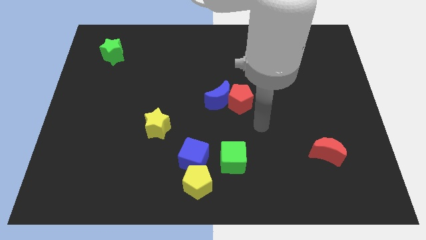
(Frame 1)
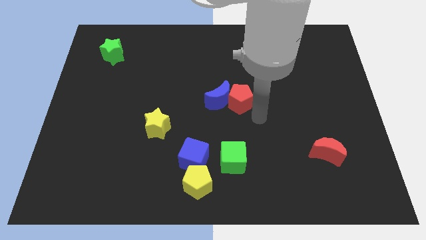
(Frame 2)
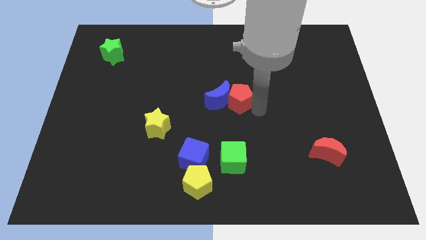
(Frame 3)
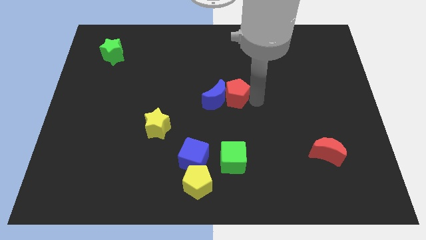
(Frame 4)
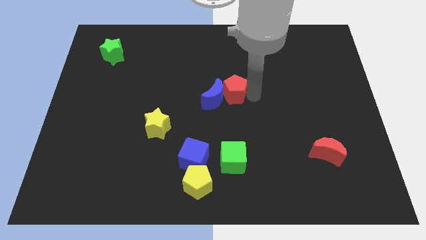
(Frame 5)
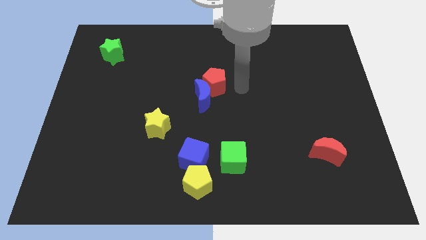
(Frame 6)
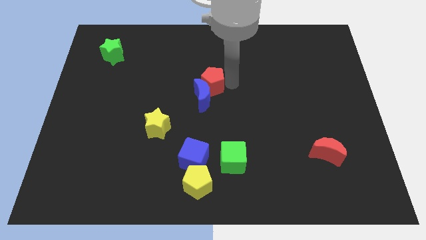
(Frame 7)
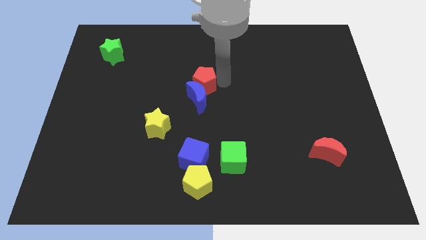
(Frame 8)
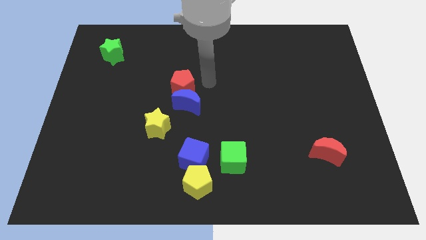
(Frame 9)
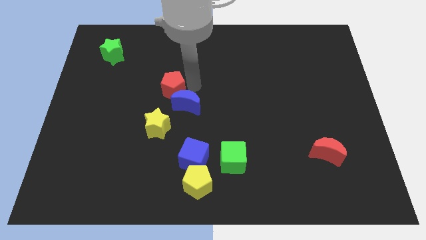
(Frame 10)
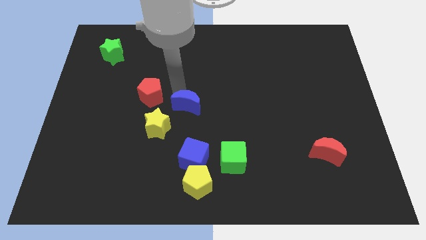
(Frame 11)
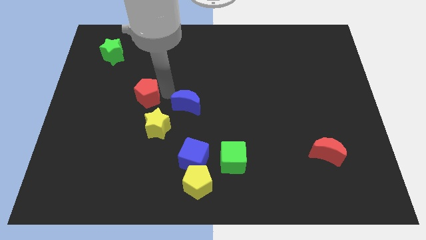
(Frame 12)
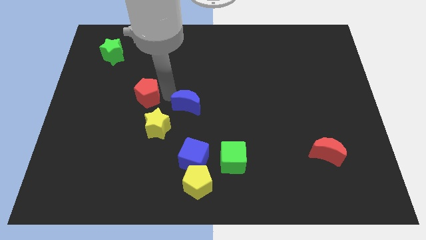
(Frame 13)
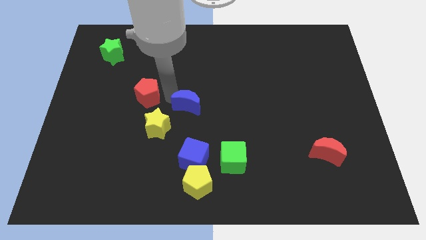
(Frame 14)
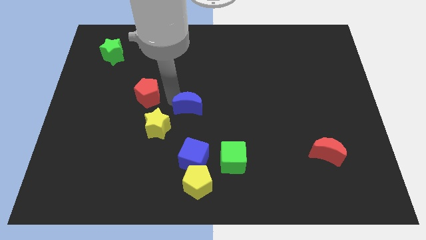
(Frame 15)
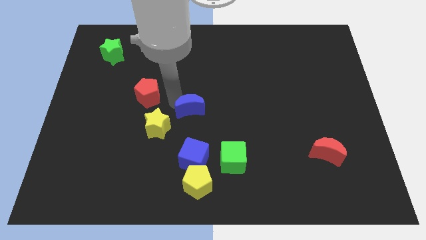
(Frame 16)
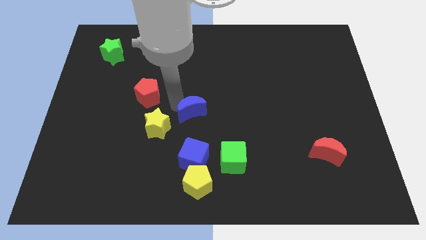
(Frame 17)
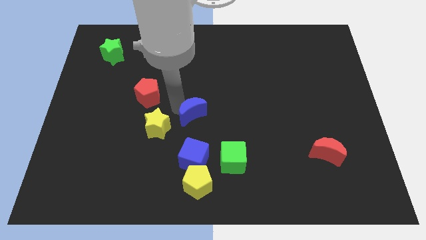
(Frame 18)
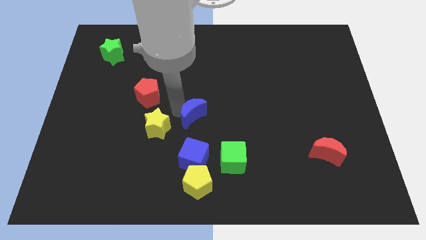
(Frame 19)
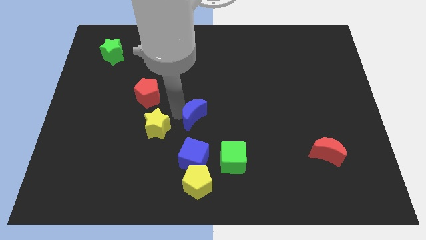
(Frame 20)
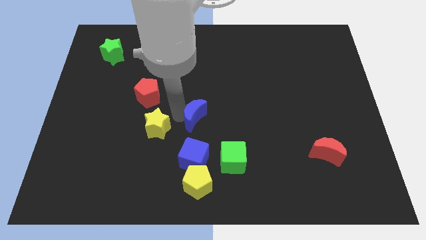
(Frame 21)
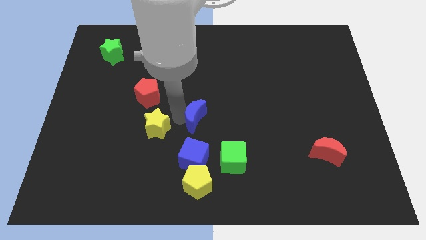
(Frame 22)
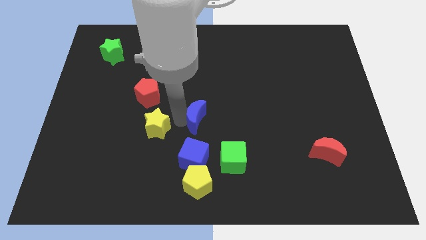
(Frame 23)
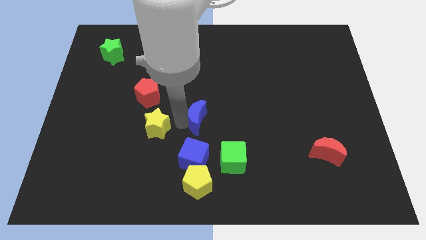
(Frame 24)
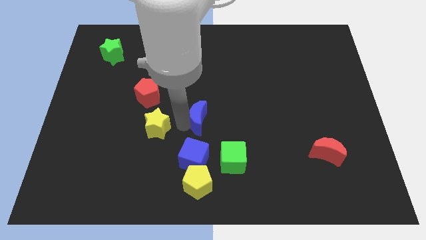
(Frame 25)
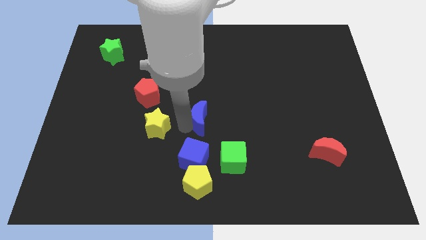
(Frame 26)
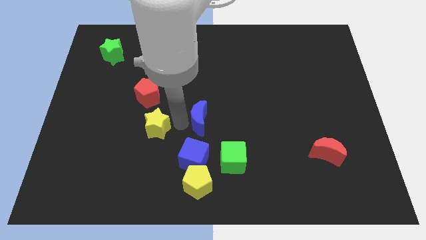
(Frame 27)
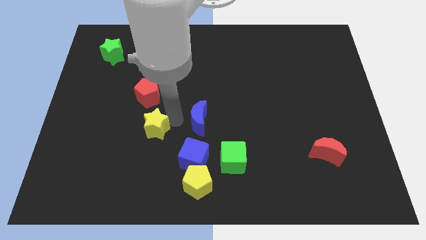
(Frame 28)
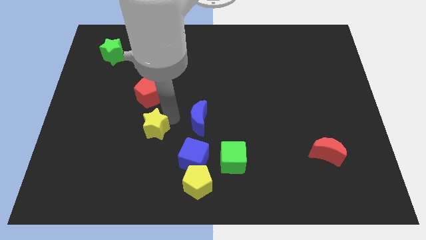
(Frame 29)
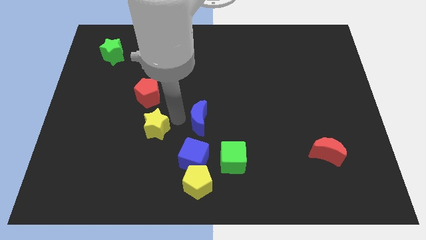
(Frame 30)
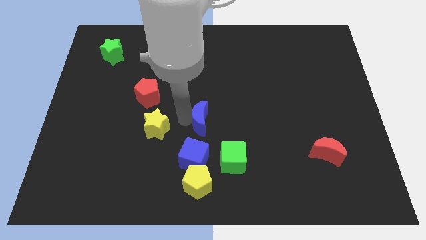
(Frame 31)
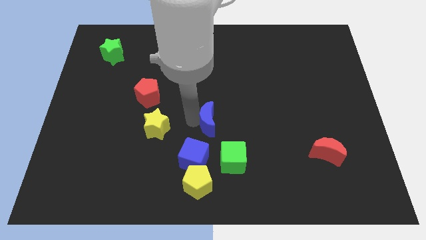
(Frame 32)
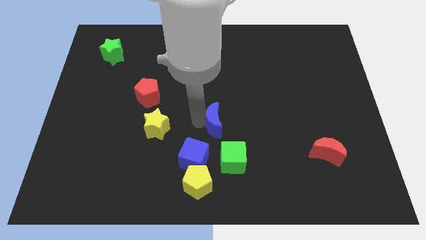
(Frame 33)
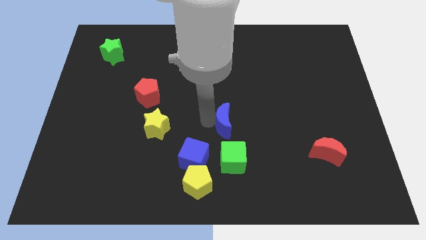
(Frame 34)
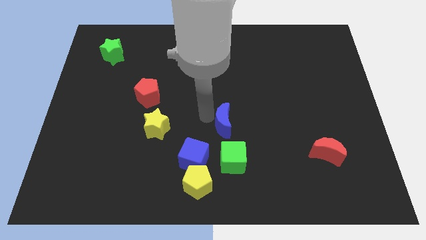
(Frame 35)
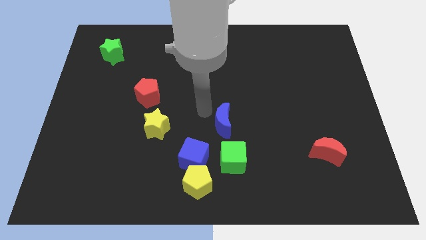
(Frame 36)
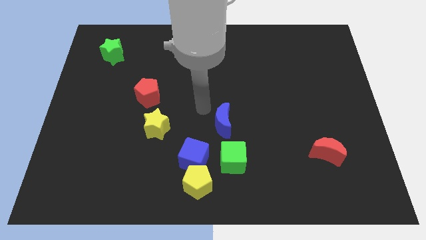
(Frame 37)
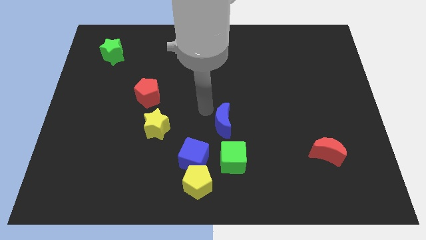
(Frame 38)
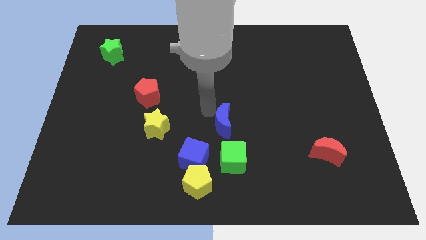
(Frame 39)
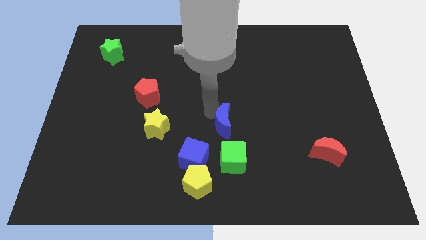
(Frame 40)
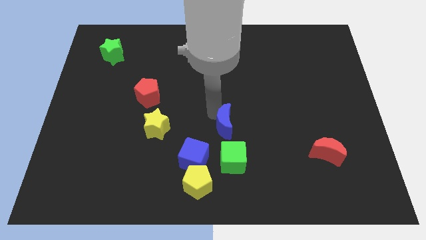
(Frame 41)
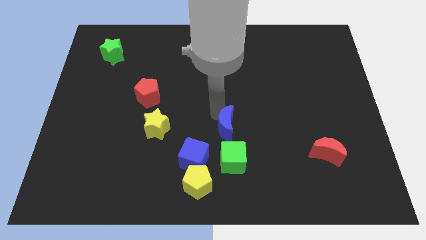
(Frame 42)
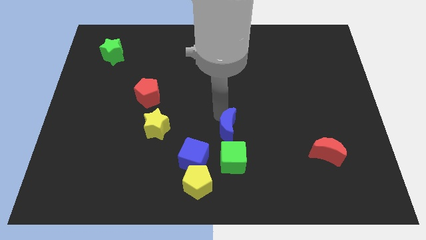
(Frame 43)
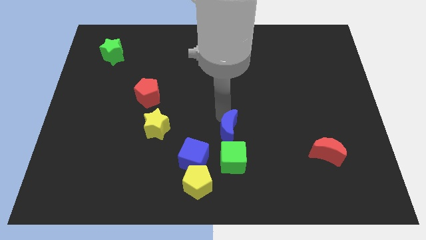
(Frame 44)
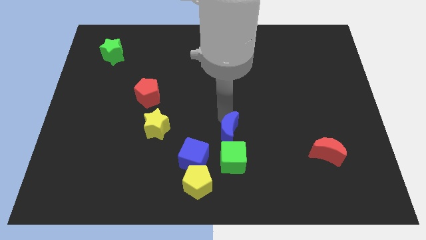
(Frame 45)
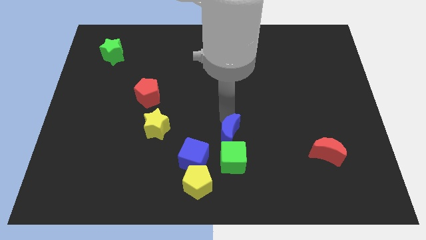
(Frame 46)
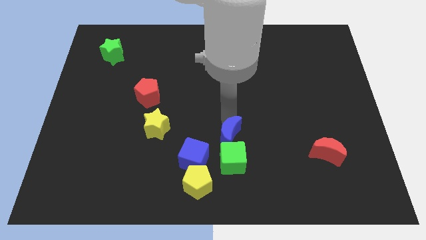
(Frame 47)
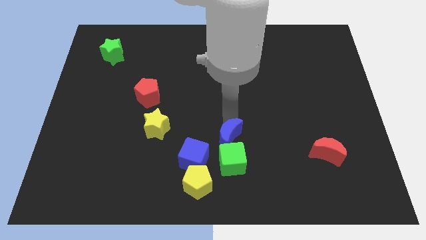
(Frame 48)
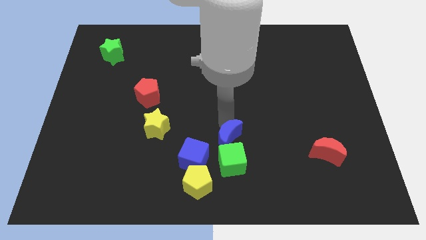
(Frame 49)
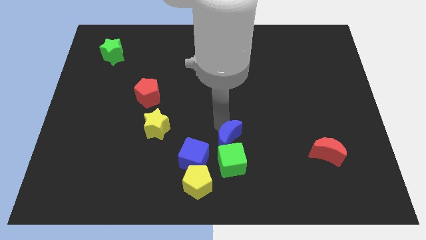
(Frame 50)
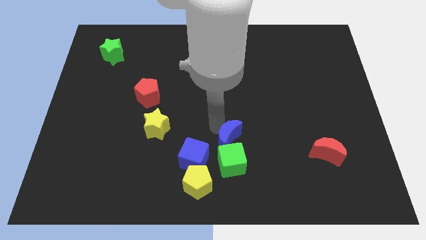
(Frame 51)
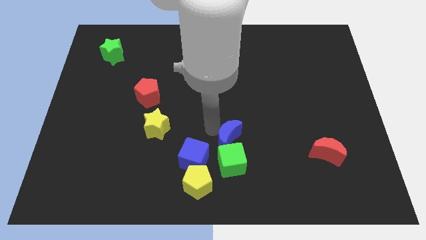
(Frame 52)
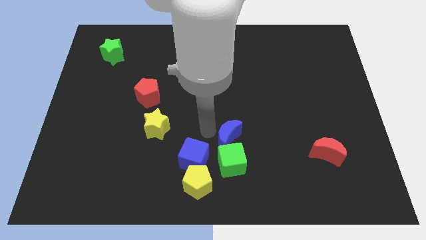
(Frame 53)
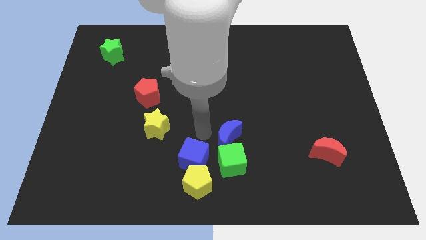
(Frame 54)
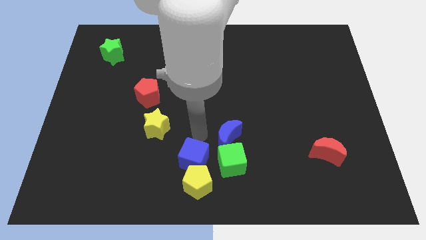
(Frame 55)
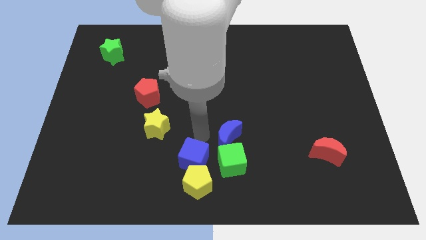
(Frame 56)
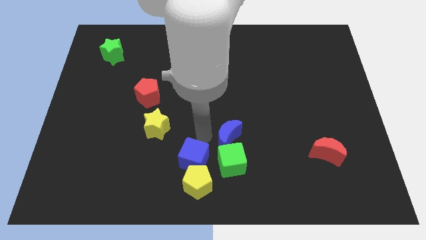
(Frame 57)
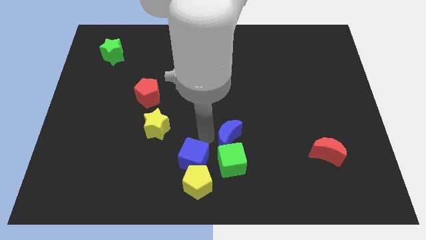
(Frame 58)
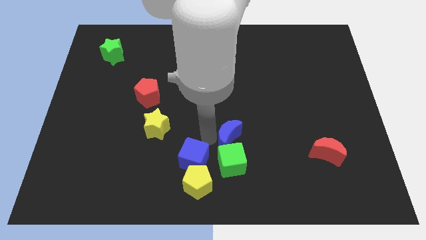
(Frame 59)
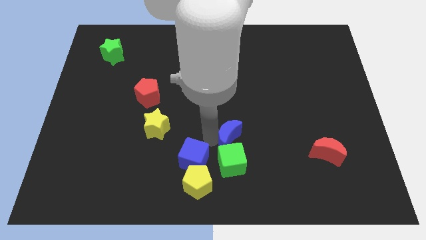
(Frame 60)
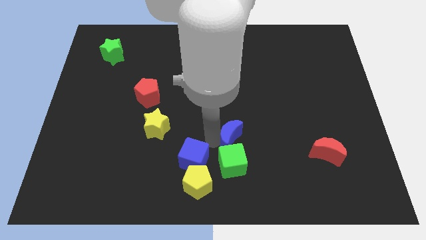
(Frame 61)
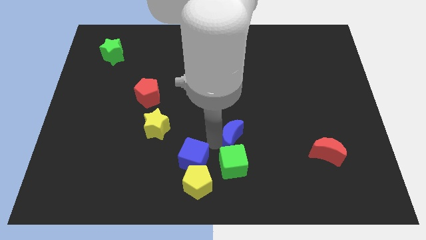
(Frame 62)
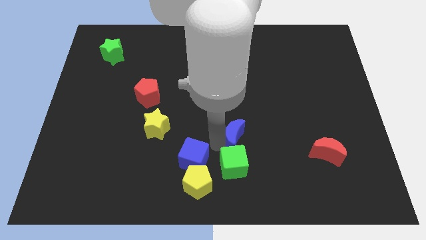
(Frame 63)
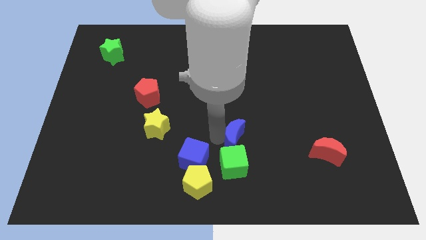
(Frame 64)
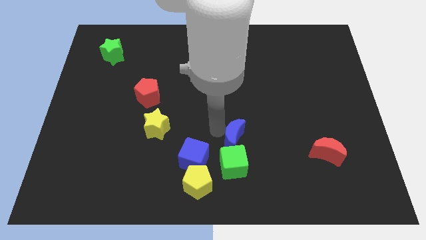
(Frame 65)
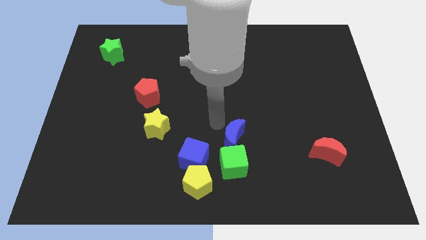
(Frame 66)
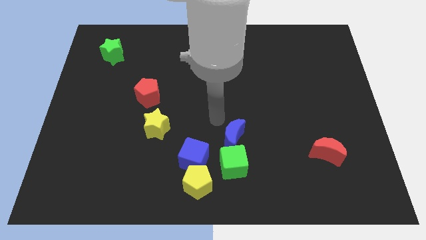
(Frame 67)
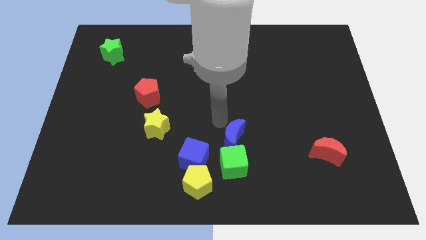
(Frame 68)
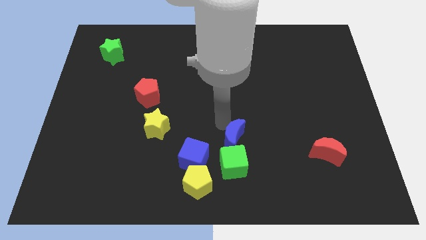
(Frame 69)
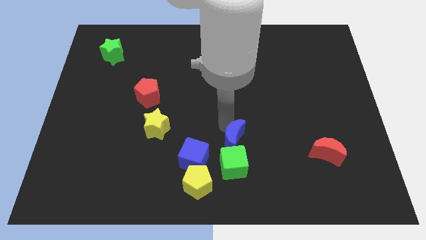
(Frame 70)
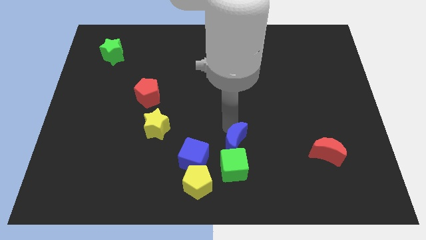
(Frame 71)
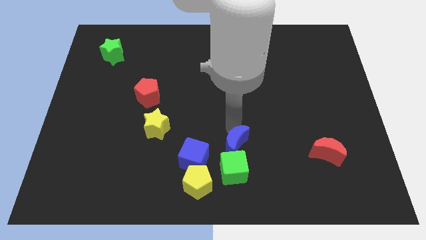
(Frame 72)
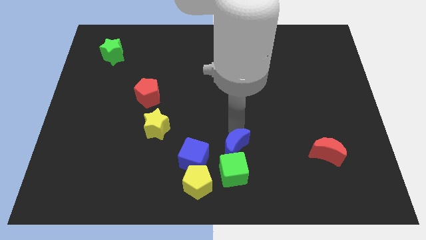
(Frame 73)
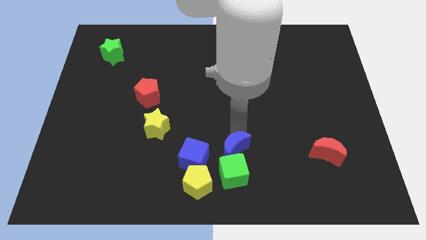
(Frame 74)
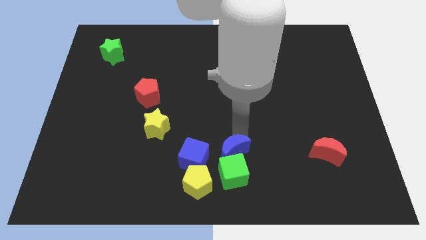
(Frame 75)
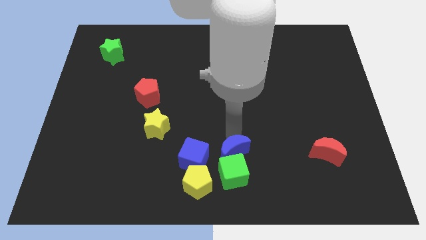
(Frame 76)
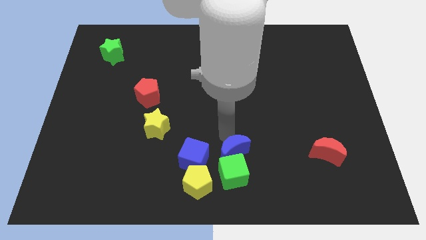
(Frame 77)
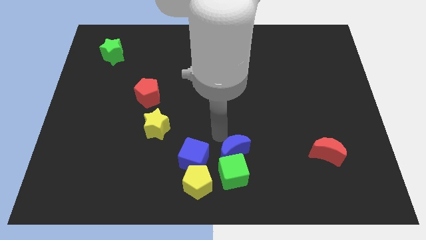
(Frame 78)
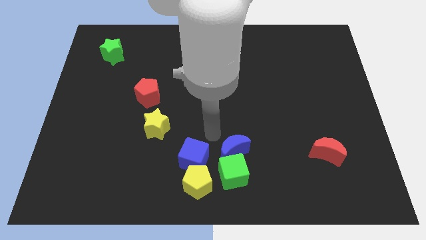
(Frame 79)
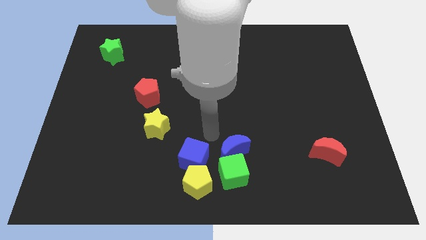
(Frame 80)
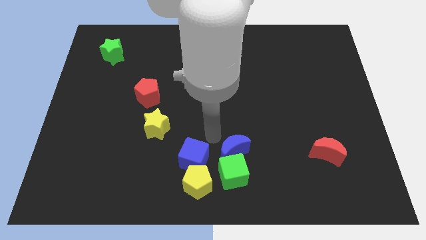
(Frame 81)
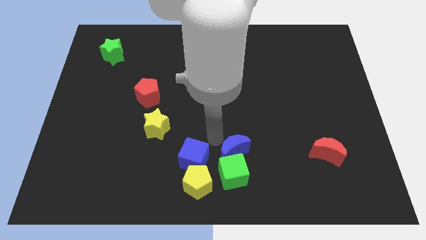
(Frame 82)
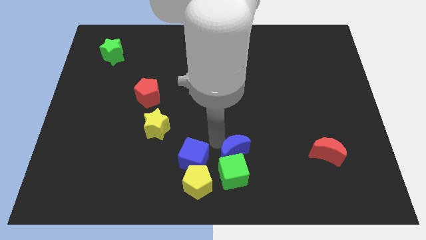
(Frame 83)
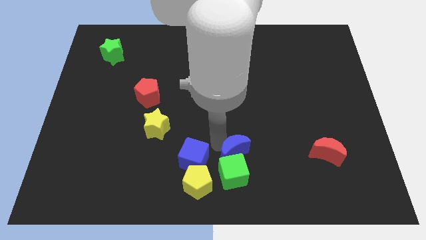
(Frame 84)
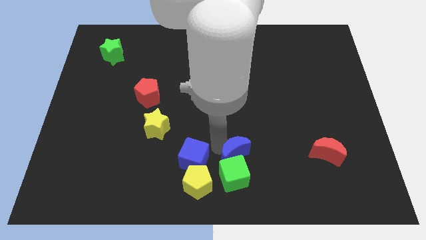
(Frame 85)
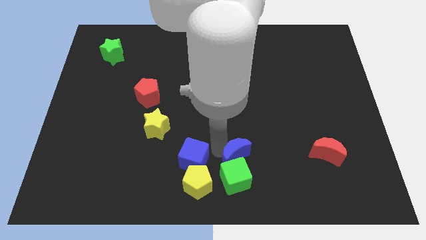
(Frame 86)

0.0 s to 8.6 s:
slide the blue moon to the bottom side
